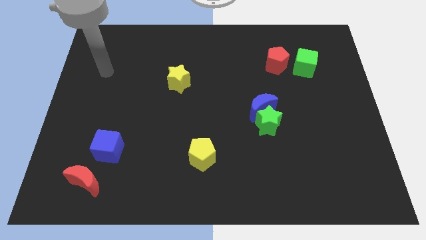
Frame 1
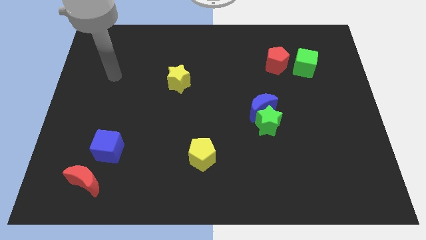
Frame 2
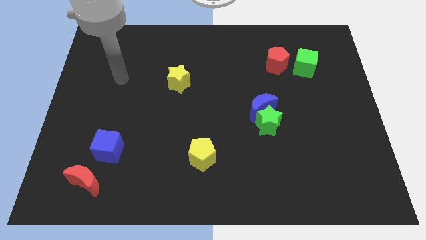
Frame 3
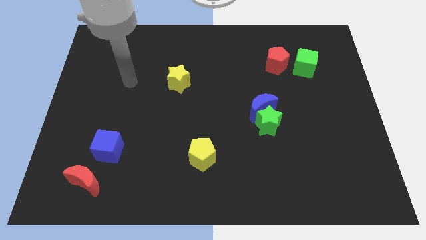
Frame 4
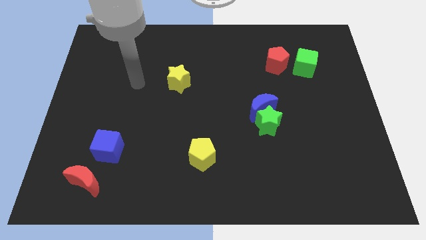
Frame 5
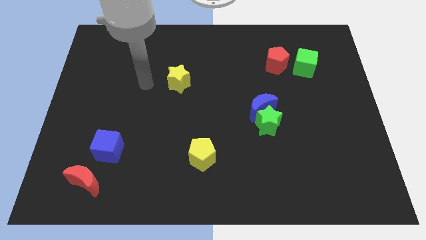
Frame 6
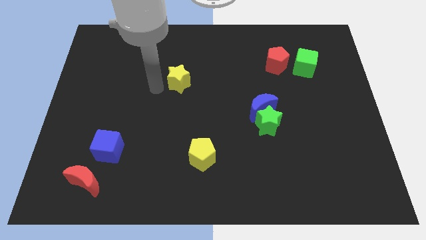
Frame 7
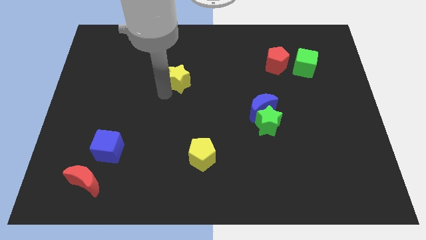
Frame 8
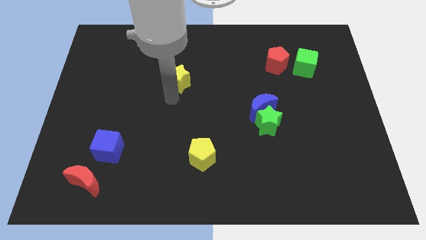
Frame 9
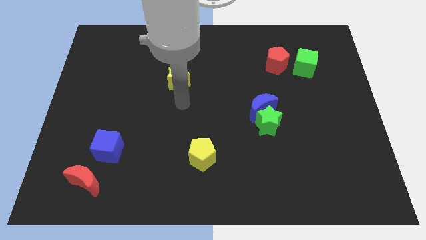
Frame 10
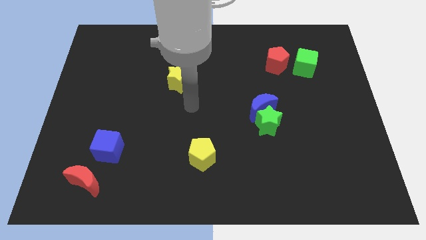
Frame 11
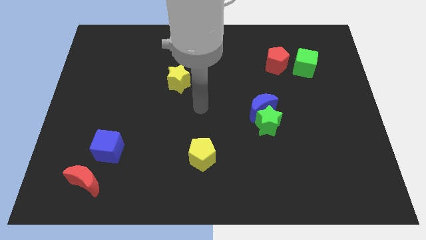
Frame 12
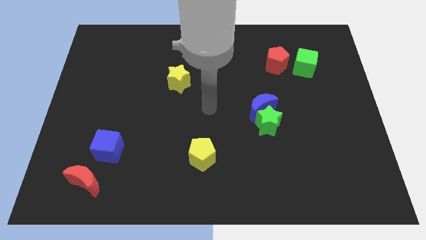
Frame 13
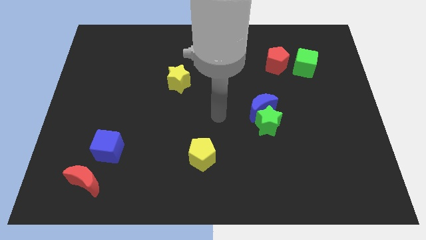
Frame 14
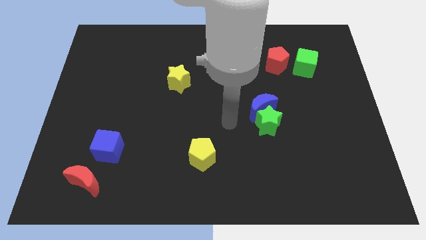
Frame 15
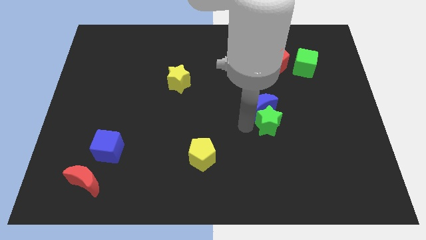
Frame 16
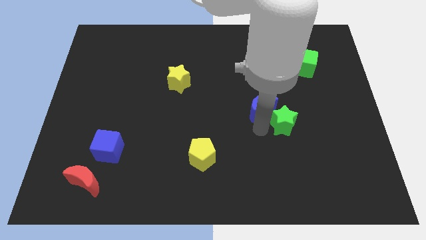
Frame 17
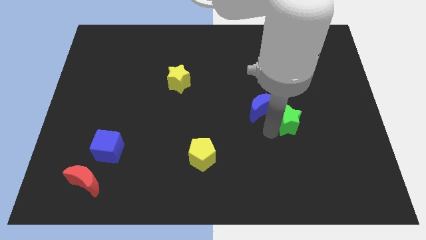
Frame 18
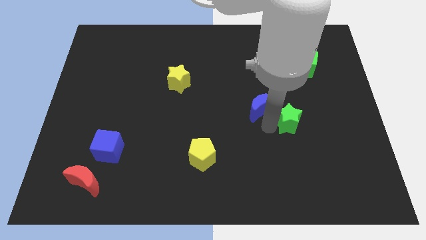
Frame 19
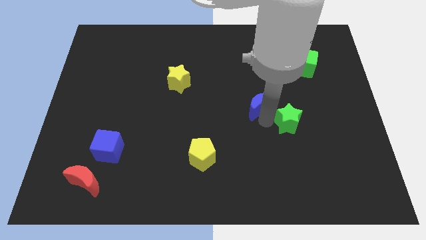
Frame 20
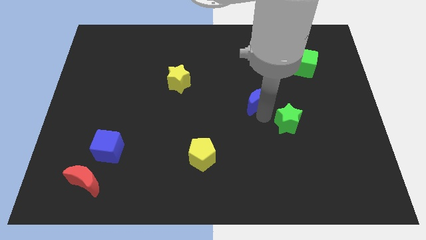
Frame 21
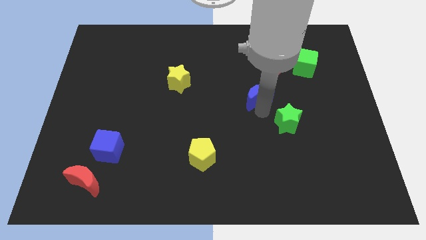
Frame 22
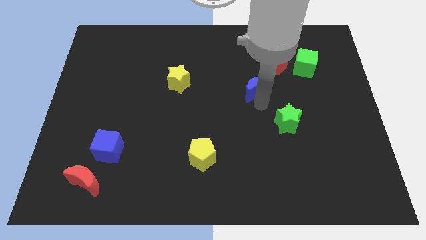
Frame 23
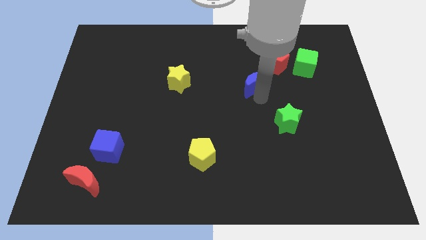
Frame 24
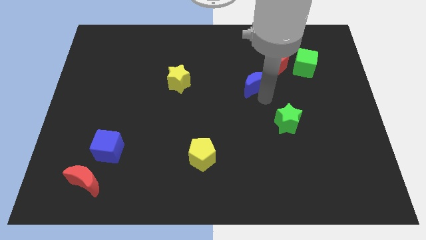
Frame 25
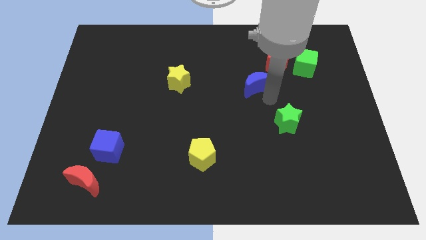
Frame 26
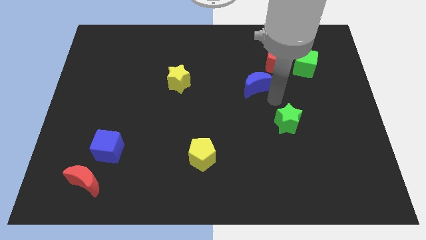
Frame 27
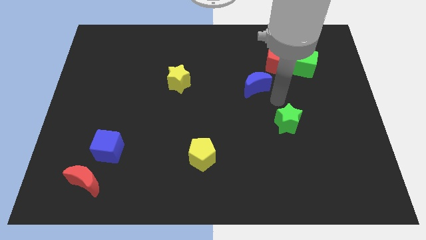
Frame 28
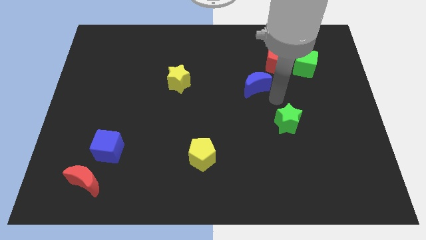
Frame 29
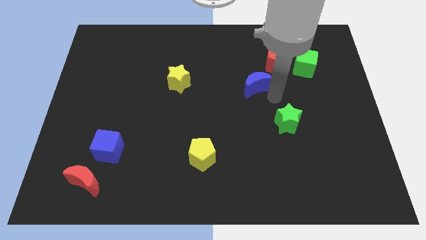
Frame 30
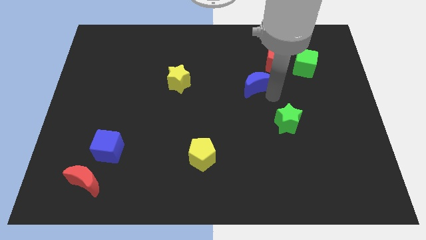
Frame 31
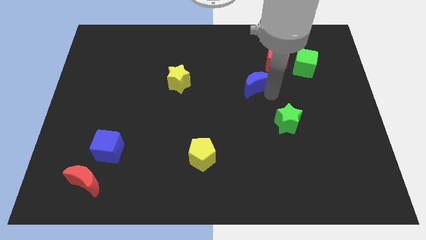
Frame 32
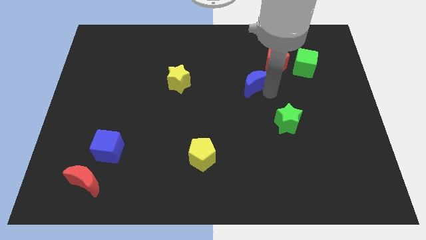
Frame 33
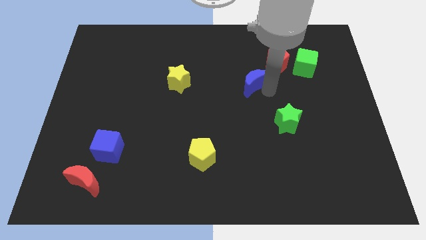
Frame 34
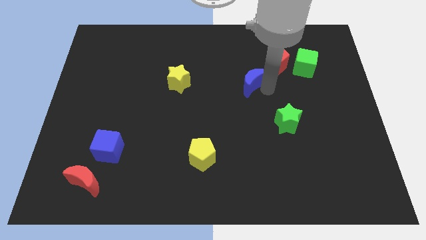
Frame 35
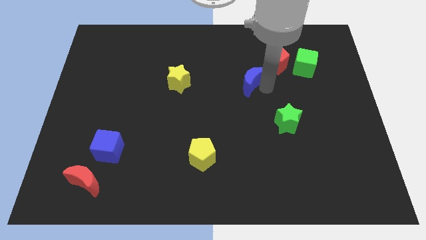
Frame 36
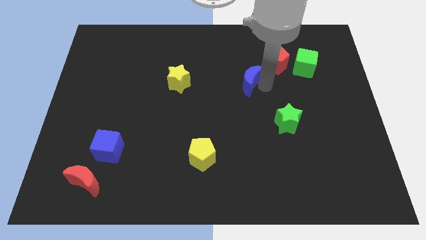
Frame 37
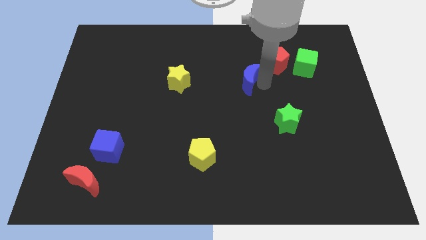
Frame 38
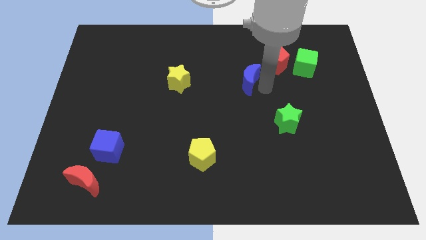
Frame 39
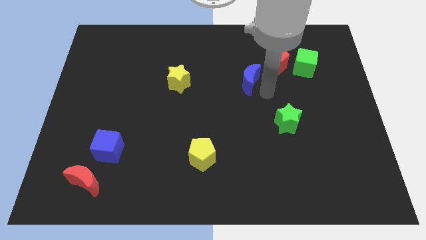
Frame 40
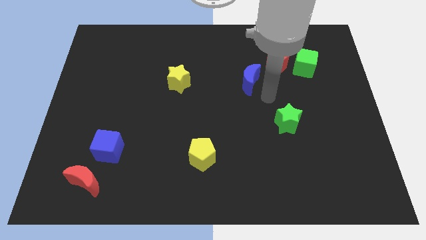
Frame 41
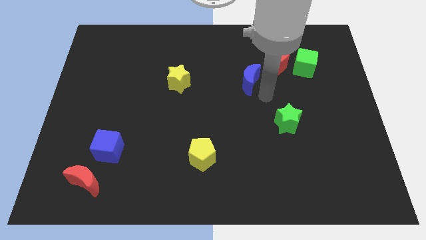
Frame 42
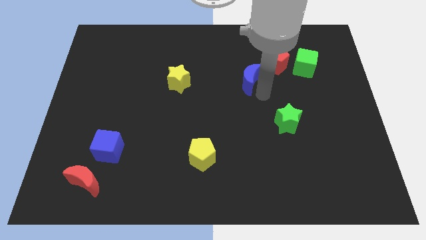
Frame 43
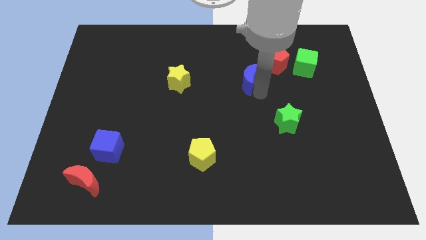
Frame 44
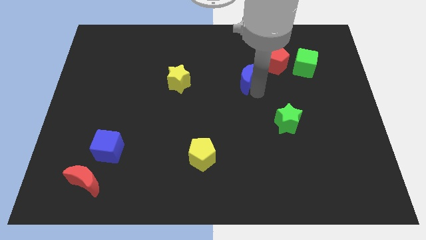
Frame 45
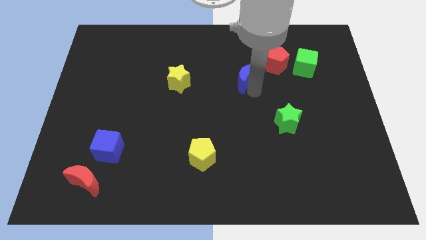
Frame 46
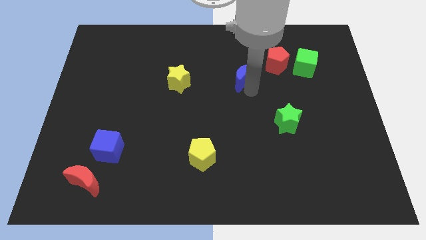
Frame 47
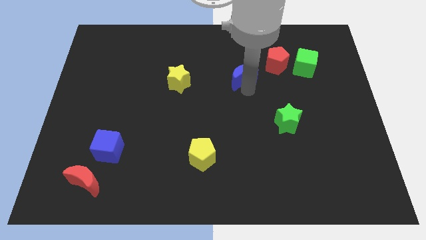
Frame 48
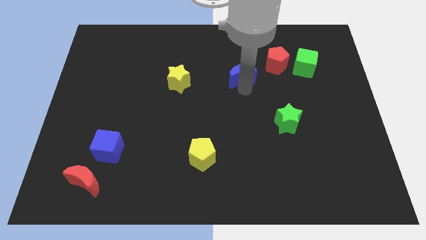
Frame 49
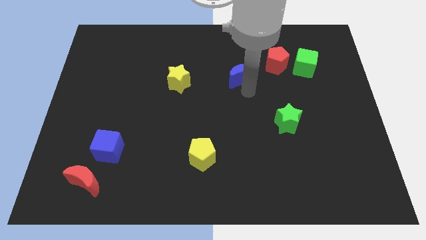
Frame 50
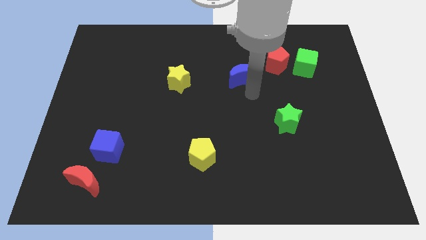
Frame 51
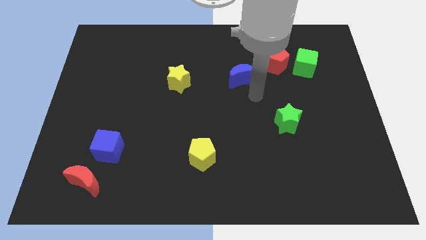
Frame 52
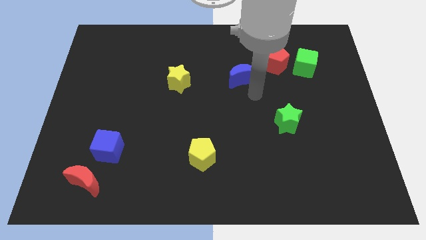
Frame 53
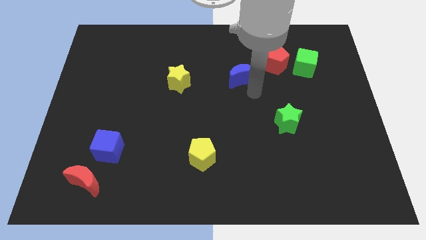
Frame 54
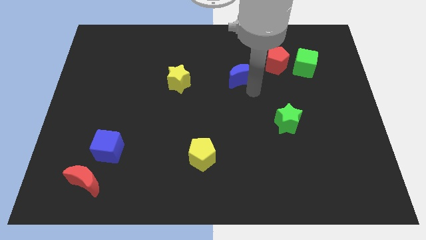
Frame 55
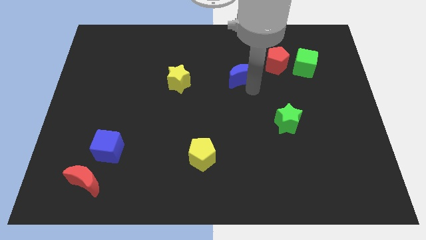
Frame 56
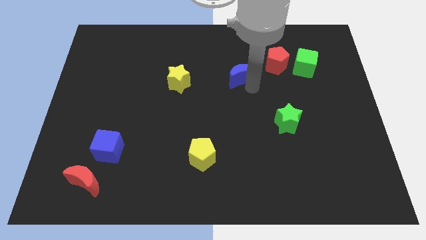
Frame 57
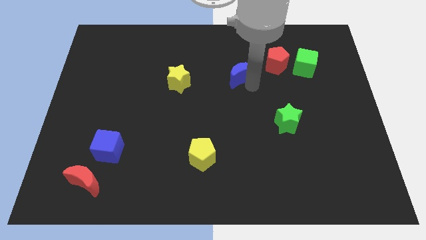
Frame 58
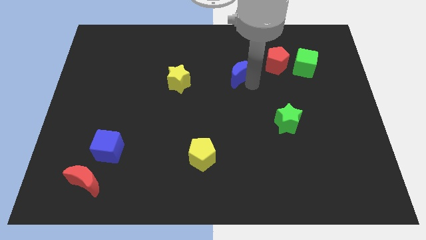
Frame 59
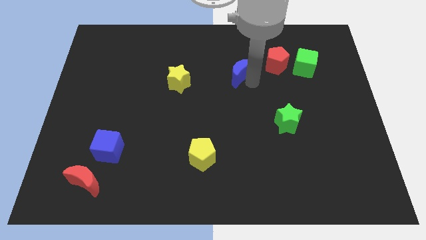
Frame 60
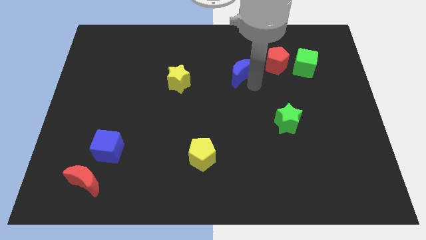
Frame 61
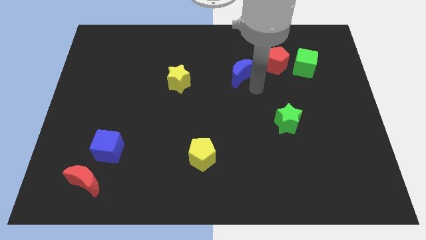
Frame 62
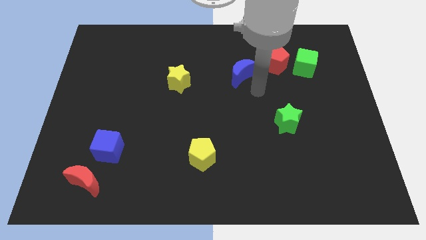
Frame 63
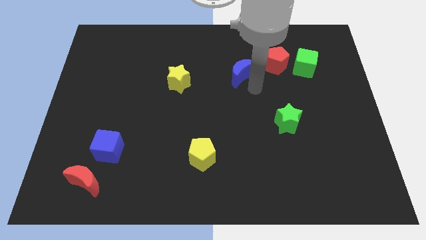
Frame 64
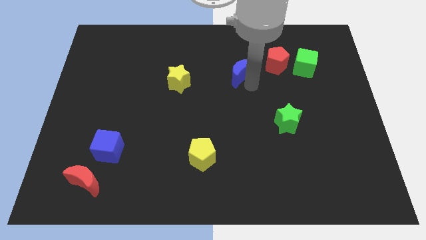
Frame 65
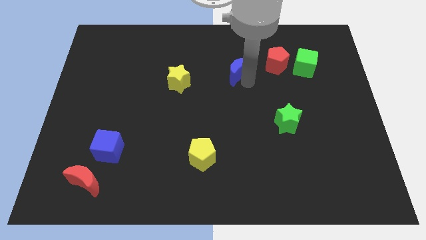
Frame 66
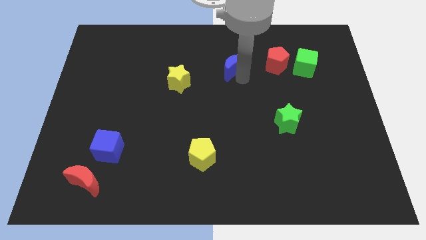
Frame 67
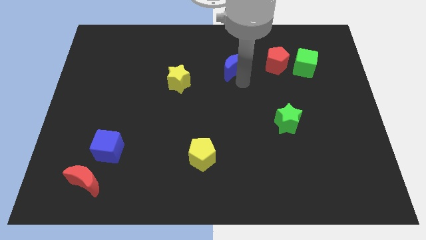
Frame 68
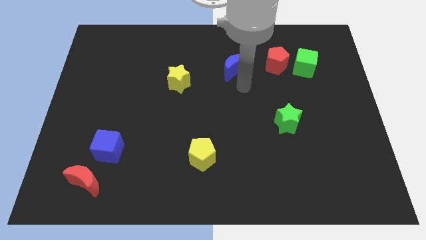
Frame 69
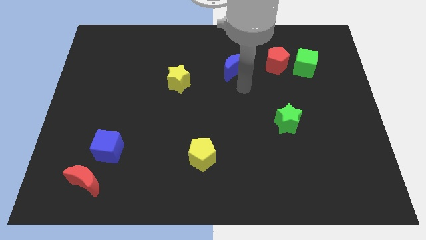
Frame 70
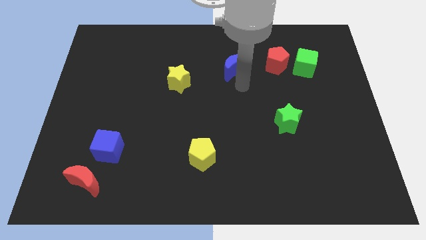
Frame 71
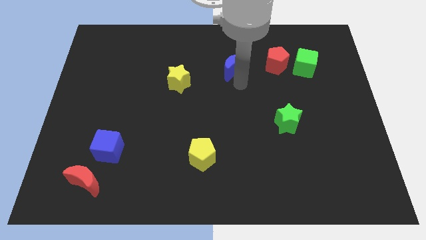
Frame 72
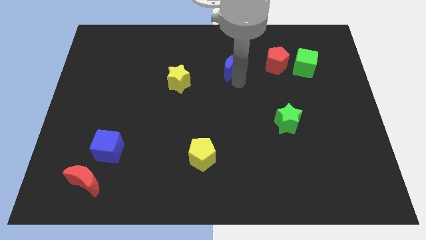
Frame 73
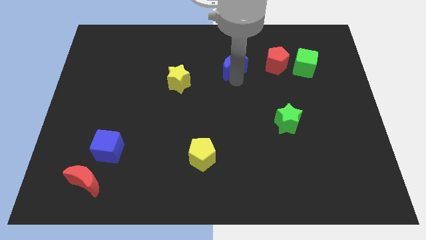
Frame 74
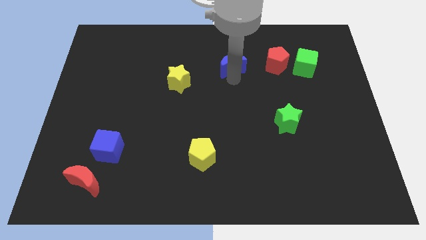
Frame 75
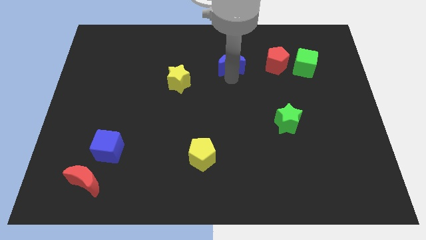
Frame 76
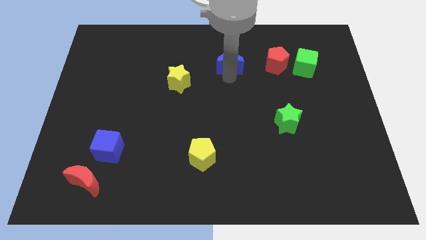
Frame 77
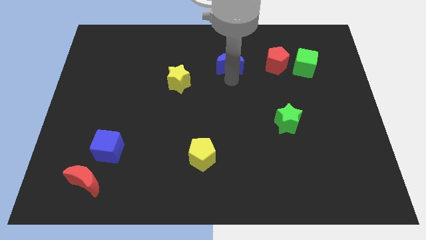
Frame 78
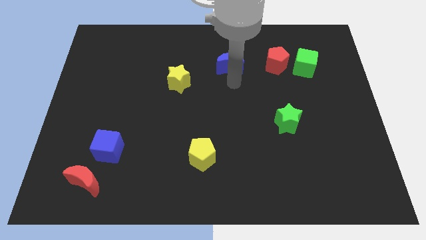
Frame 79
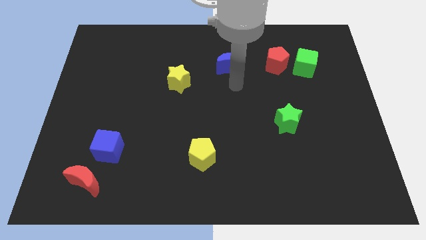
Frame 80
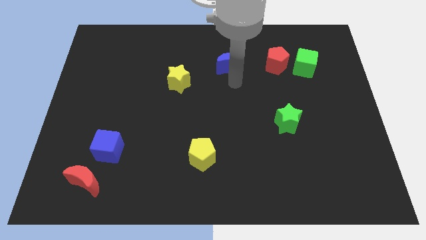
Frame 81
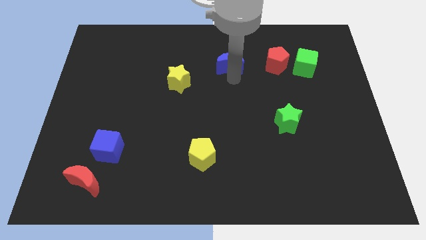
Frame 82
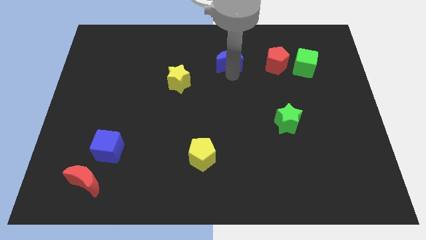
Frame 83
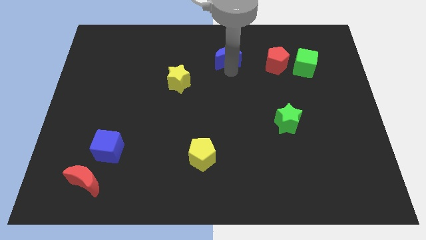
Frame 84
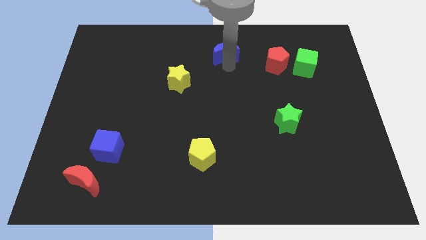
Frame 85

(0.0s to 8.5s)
put the blue moon to the top
